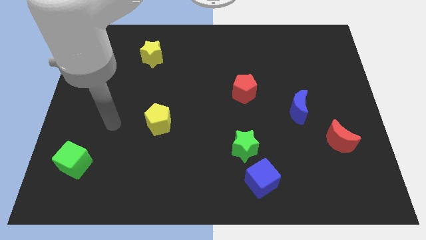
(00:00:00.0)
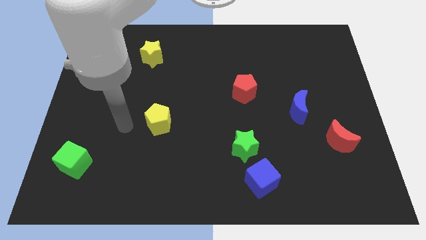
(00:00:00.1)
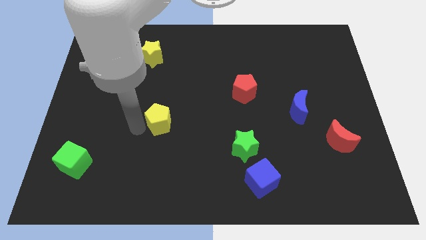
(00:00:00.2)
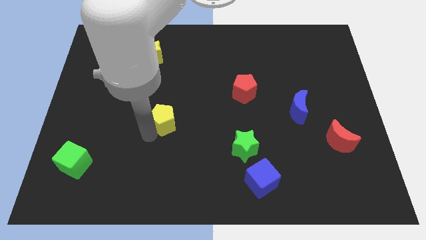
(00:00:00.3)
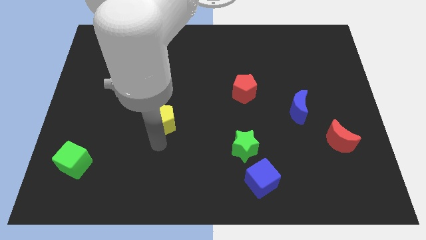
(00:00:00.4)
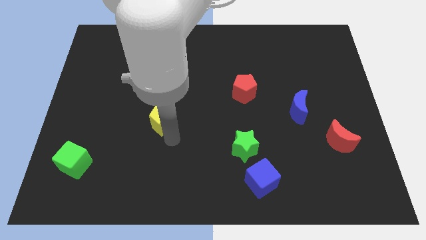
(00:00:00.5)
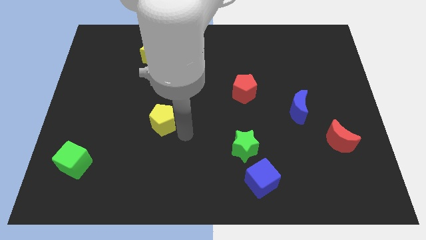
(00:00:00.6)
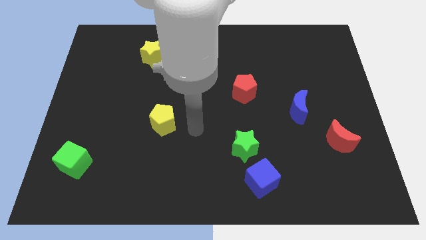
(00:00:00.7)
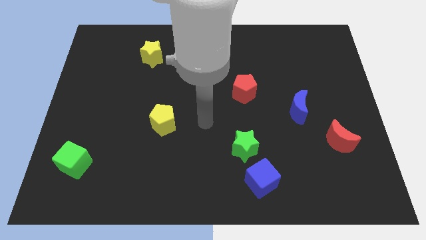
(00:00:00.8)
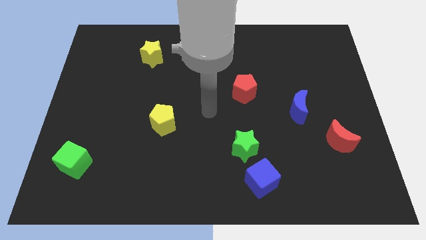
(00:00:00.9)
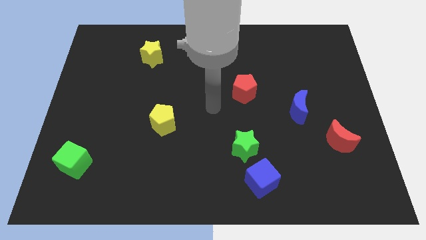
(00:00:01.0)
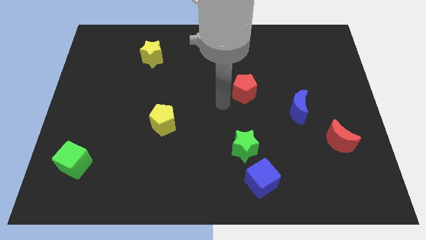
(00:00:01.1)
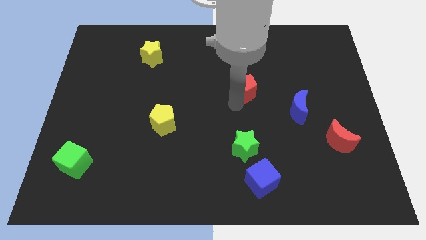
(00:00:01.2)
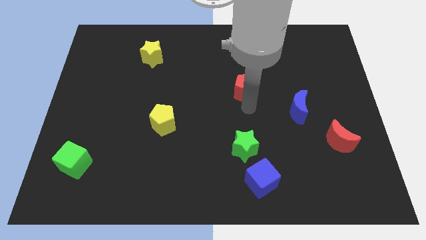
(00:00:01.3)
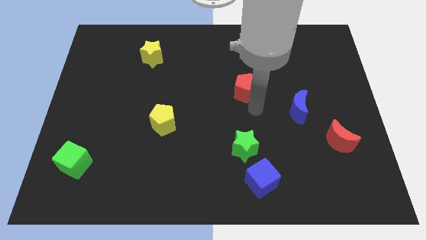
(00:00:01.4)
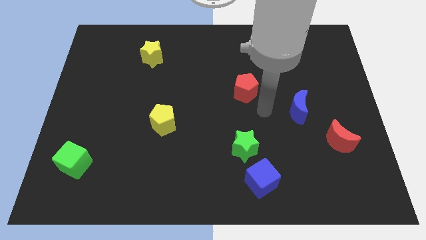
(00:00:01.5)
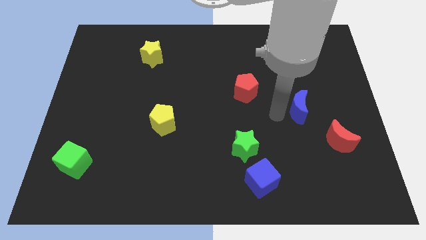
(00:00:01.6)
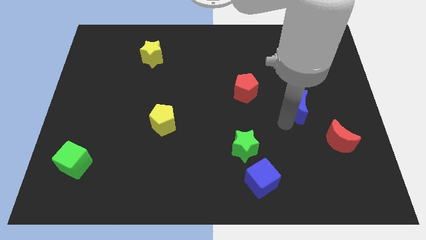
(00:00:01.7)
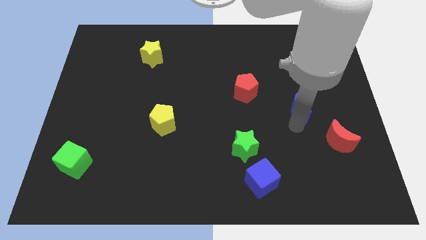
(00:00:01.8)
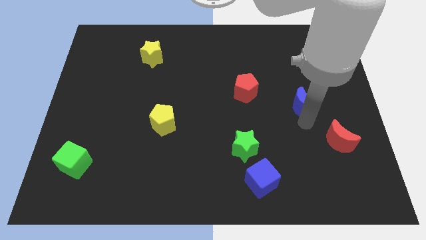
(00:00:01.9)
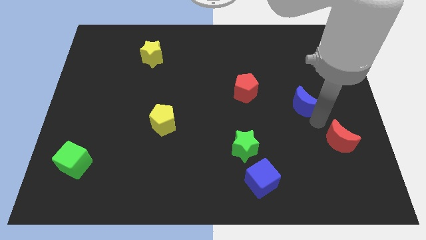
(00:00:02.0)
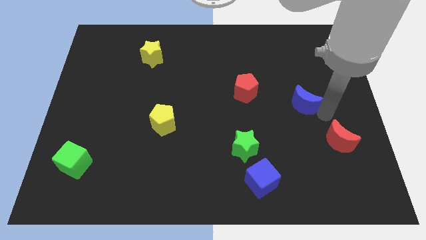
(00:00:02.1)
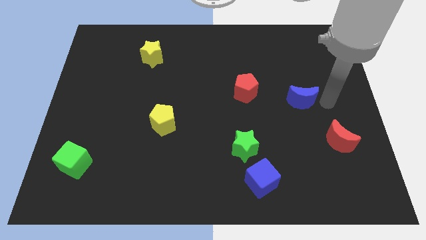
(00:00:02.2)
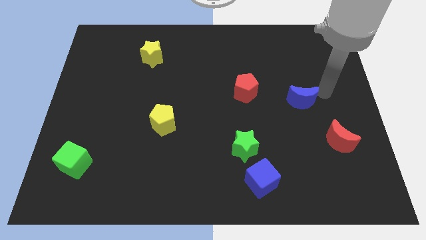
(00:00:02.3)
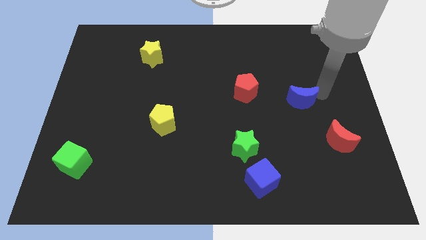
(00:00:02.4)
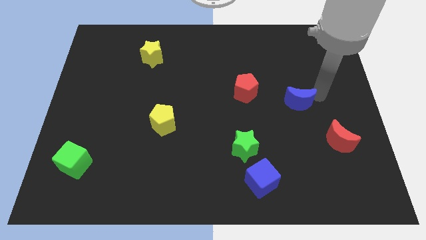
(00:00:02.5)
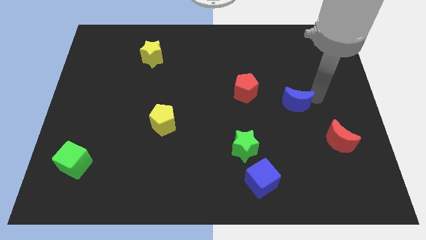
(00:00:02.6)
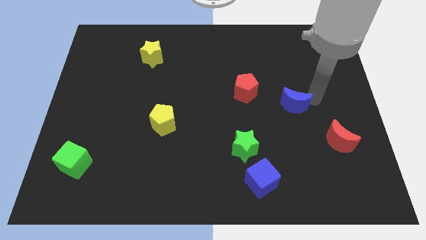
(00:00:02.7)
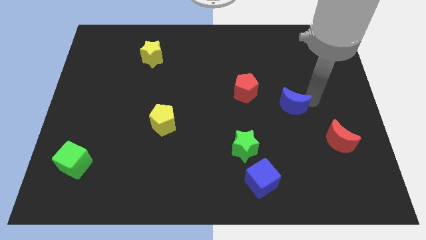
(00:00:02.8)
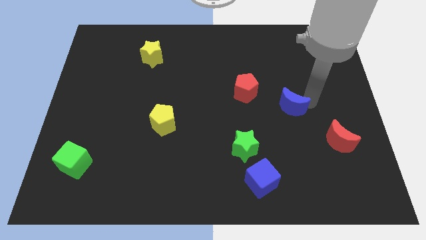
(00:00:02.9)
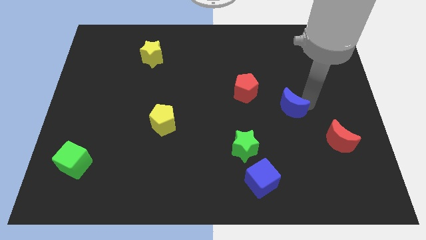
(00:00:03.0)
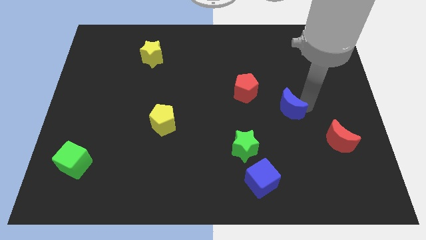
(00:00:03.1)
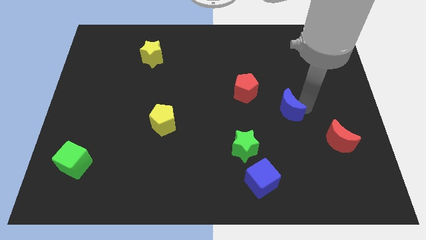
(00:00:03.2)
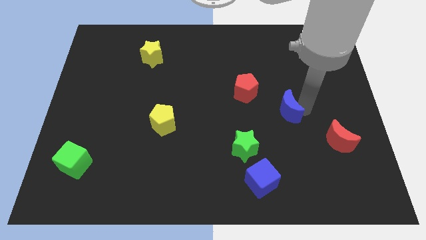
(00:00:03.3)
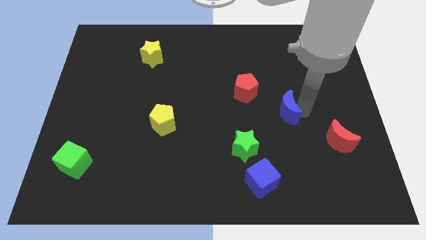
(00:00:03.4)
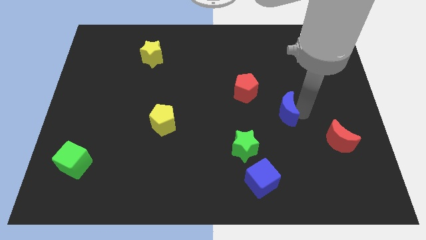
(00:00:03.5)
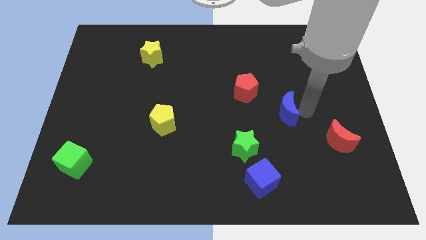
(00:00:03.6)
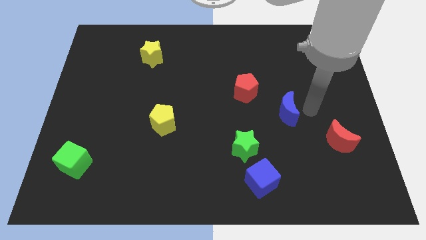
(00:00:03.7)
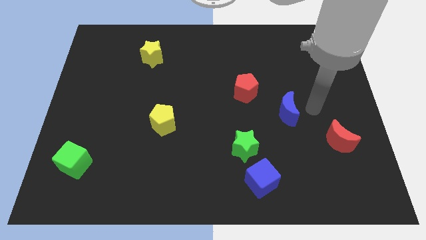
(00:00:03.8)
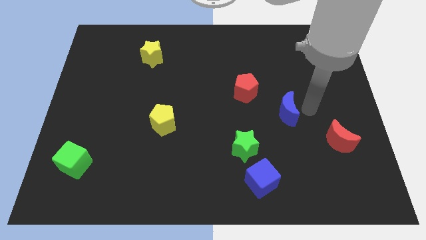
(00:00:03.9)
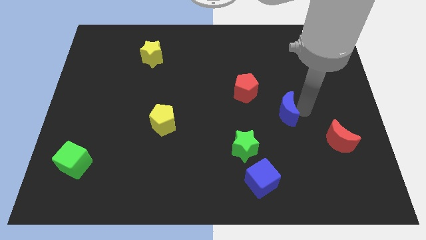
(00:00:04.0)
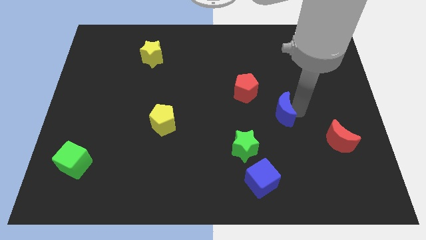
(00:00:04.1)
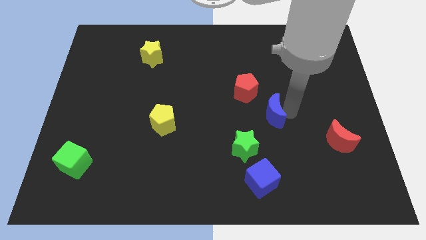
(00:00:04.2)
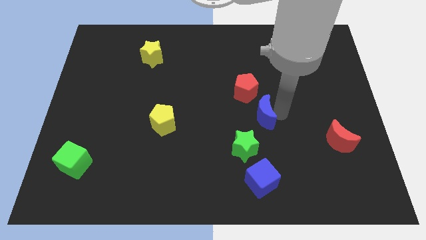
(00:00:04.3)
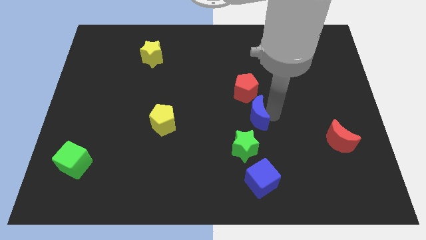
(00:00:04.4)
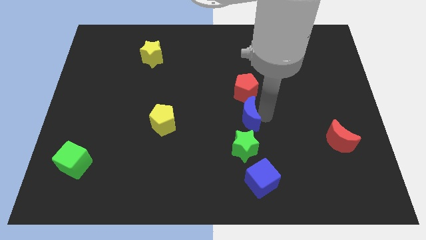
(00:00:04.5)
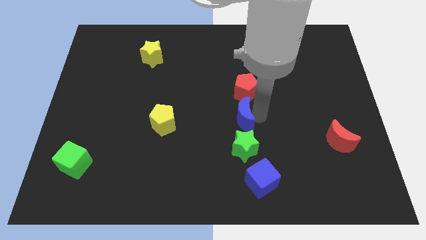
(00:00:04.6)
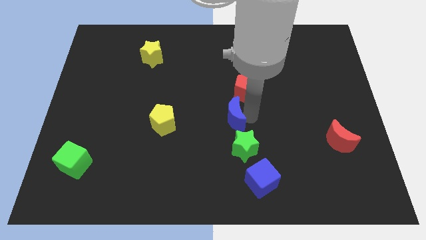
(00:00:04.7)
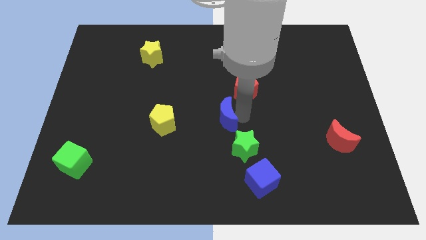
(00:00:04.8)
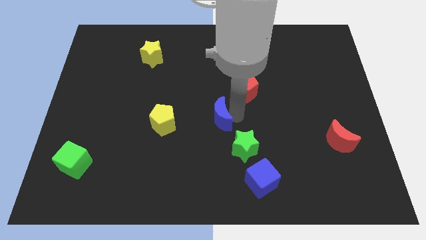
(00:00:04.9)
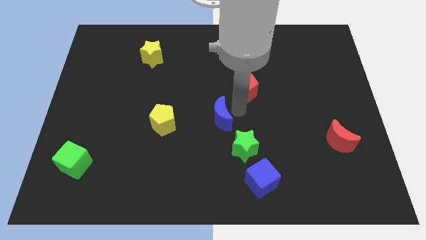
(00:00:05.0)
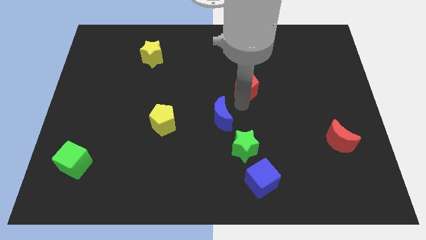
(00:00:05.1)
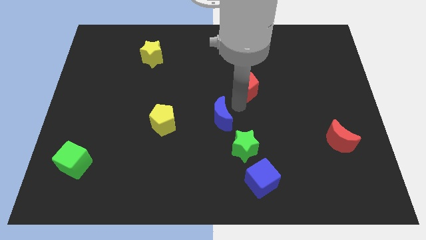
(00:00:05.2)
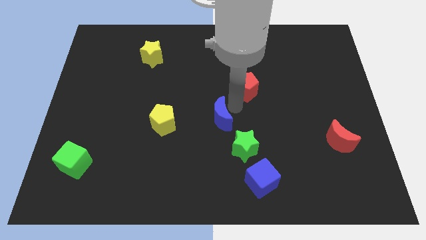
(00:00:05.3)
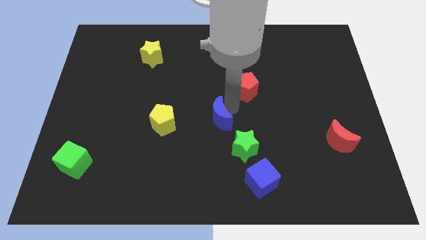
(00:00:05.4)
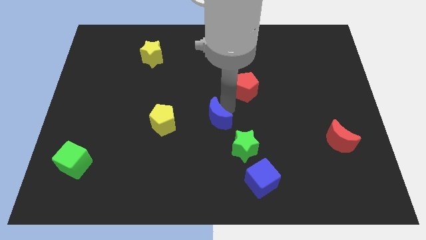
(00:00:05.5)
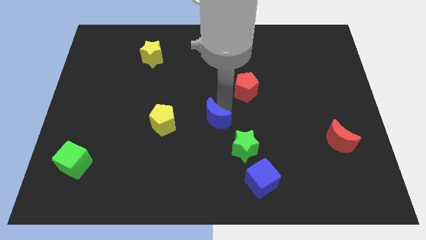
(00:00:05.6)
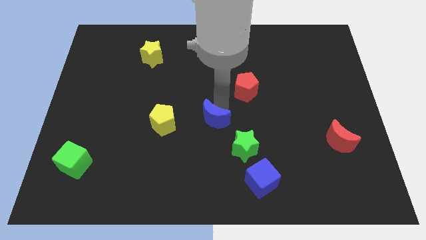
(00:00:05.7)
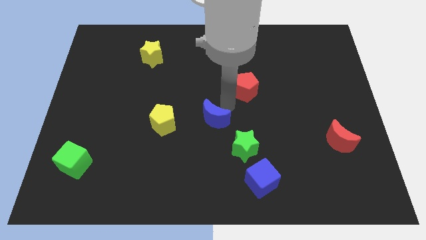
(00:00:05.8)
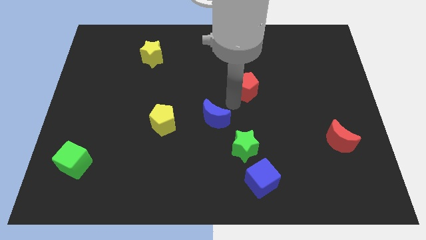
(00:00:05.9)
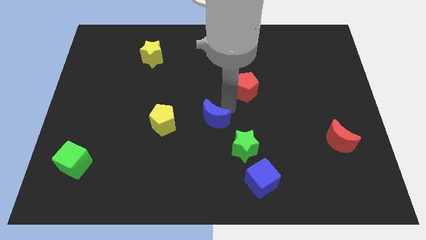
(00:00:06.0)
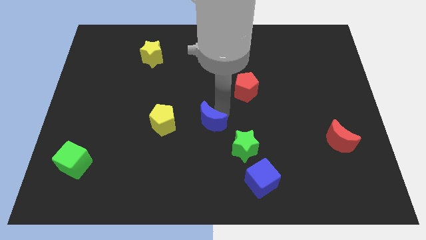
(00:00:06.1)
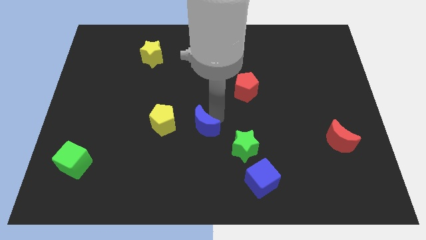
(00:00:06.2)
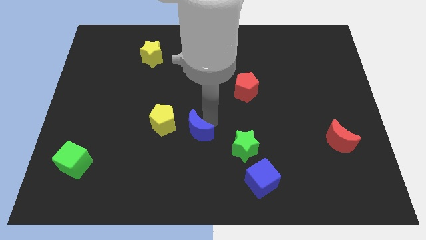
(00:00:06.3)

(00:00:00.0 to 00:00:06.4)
slide the blue moon diagonally down and to the right of the yellow pentagon

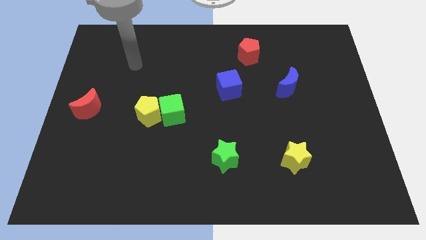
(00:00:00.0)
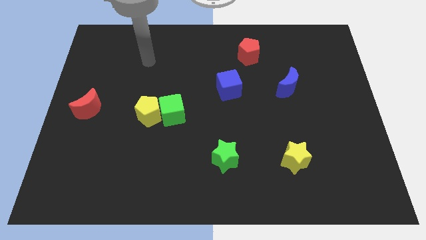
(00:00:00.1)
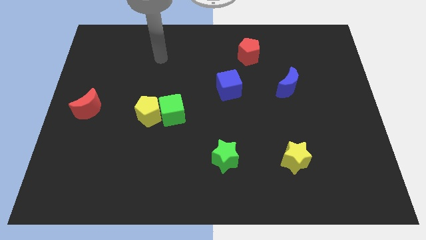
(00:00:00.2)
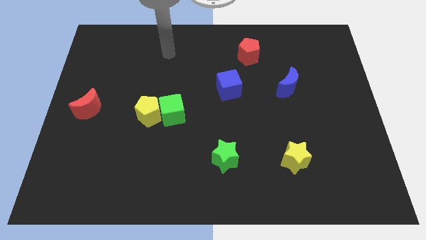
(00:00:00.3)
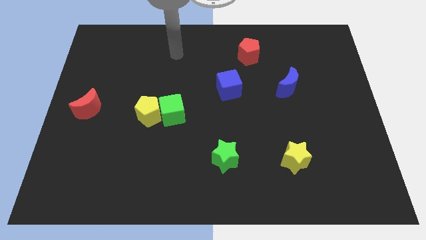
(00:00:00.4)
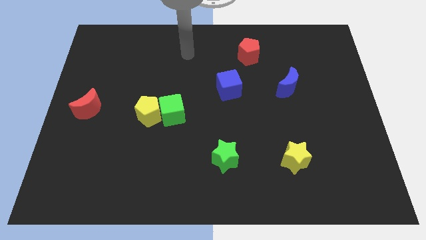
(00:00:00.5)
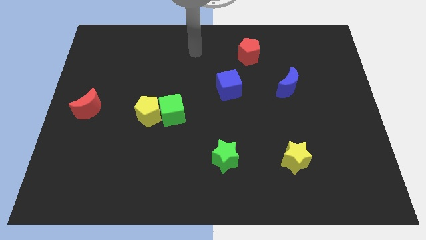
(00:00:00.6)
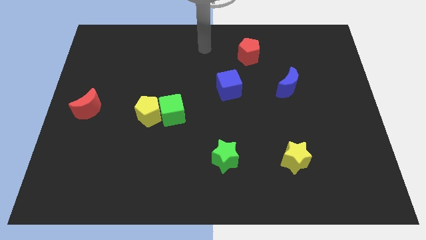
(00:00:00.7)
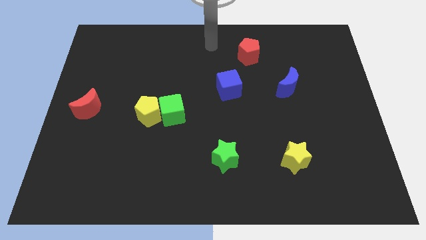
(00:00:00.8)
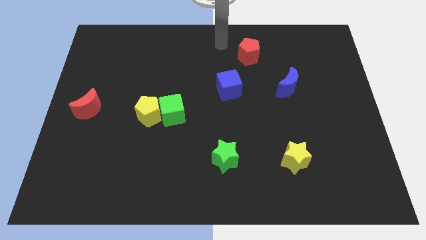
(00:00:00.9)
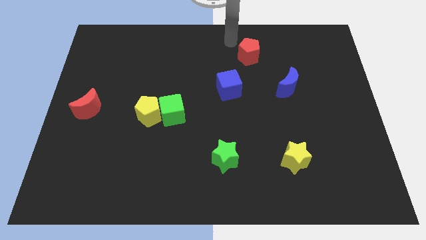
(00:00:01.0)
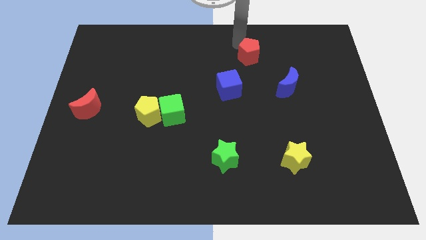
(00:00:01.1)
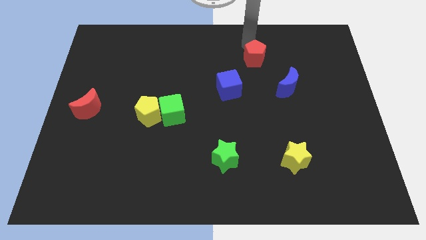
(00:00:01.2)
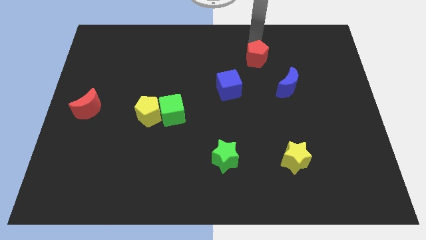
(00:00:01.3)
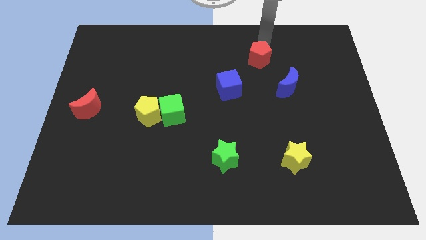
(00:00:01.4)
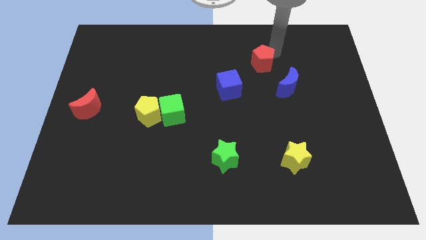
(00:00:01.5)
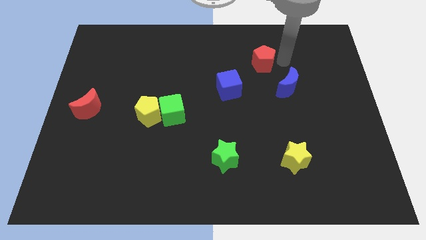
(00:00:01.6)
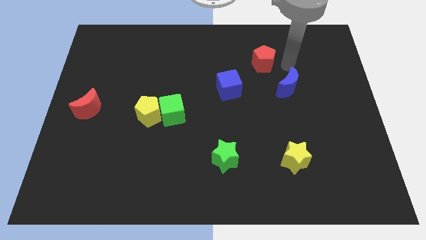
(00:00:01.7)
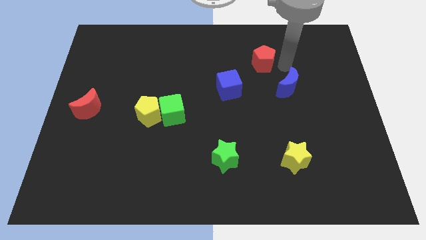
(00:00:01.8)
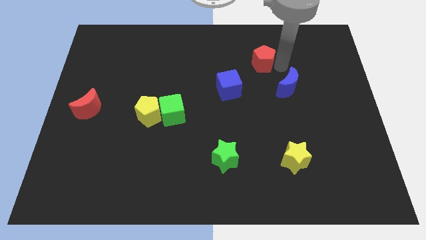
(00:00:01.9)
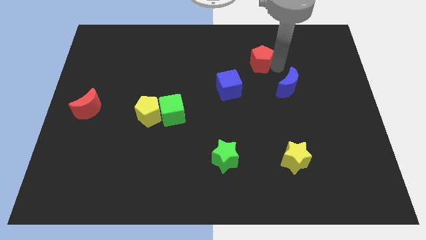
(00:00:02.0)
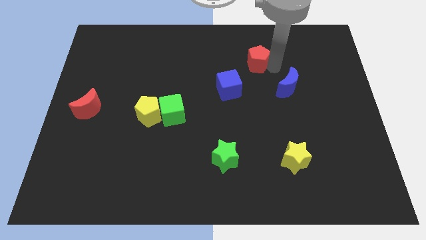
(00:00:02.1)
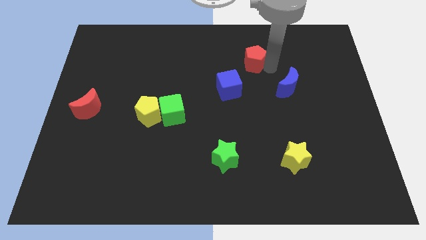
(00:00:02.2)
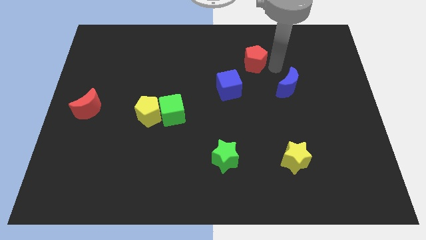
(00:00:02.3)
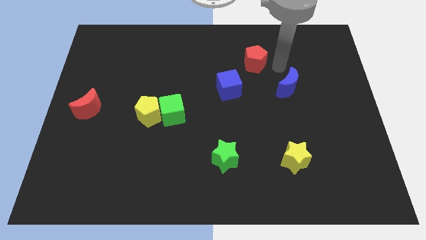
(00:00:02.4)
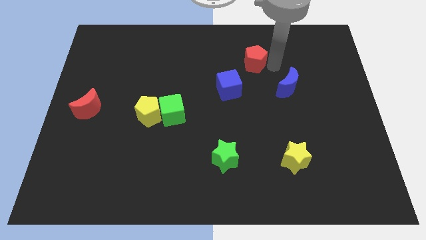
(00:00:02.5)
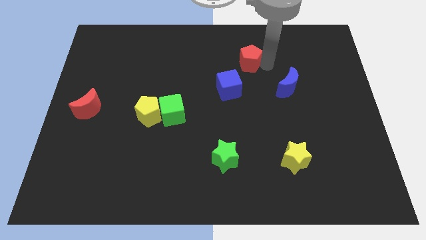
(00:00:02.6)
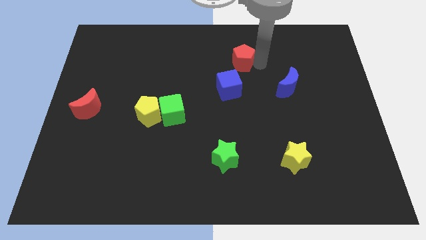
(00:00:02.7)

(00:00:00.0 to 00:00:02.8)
slide the red pentagon above the blue cube
